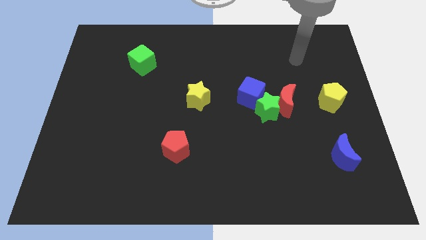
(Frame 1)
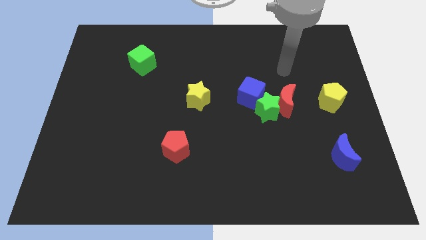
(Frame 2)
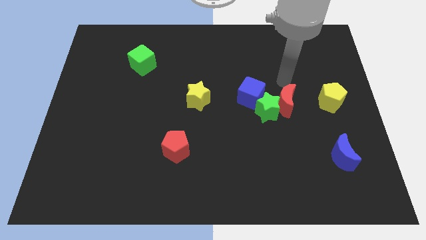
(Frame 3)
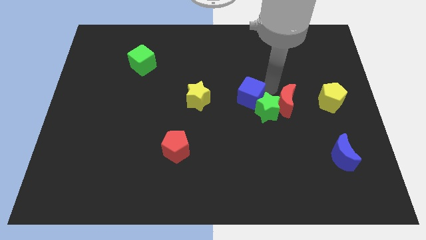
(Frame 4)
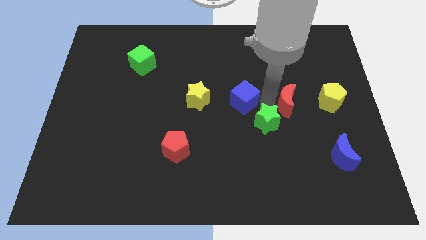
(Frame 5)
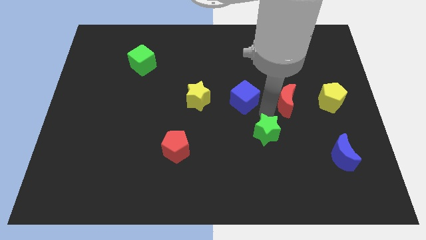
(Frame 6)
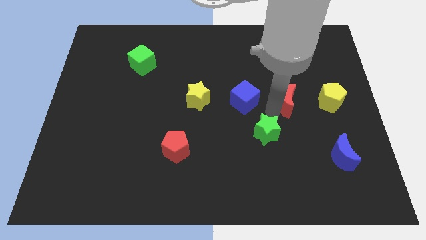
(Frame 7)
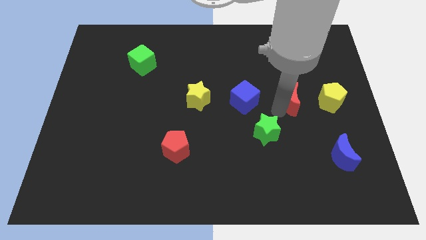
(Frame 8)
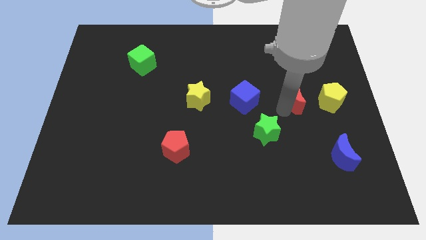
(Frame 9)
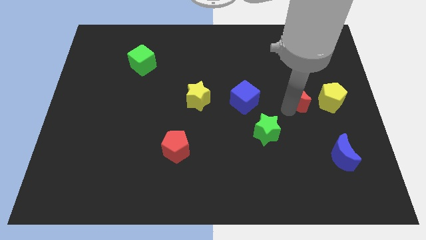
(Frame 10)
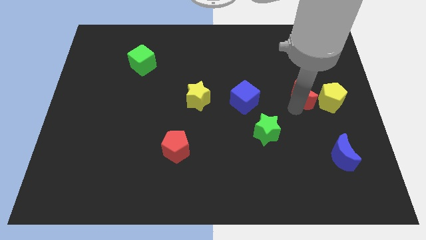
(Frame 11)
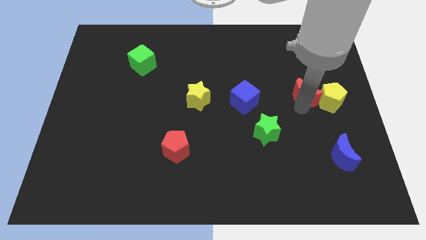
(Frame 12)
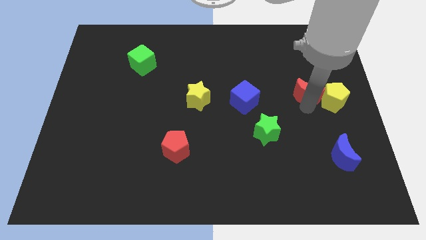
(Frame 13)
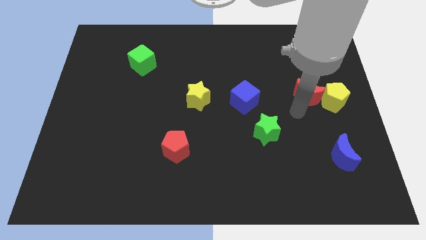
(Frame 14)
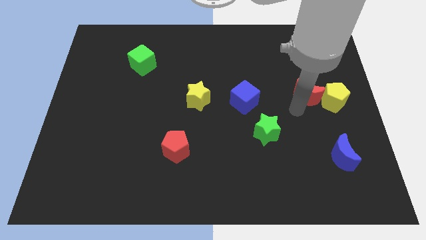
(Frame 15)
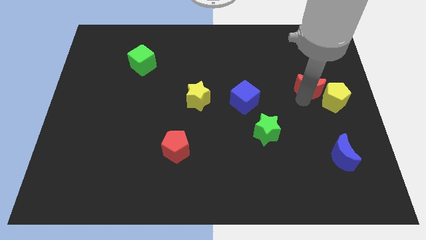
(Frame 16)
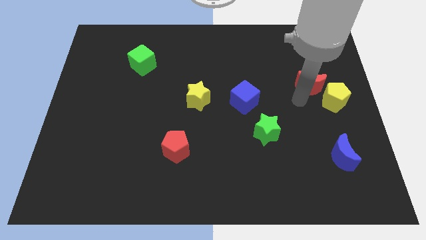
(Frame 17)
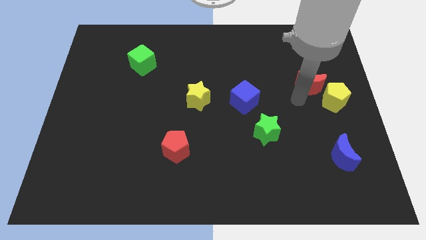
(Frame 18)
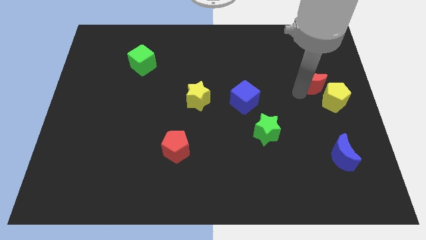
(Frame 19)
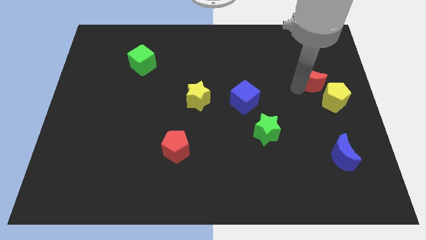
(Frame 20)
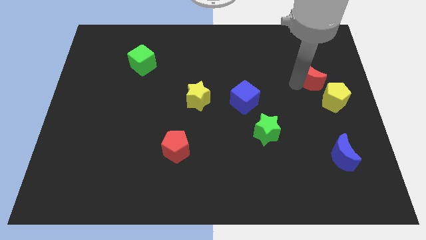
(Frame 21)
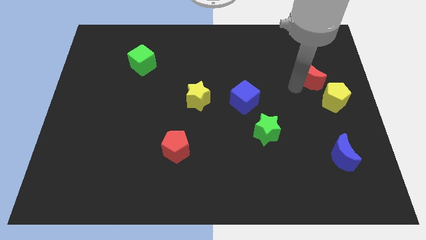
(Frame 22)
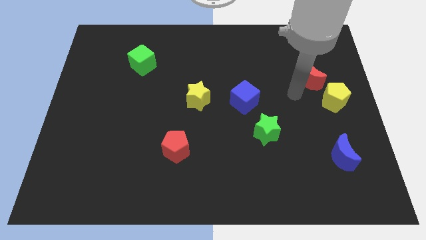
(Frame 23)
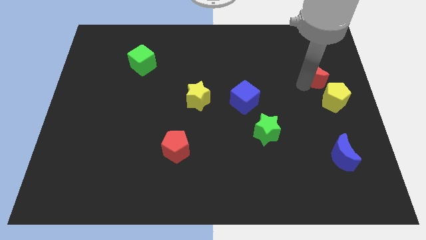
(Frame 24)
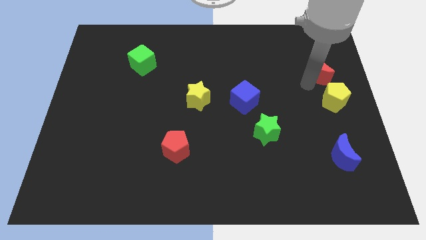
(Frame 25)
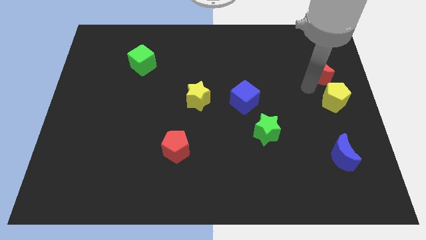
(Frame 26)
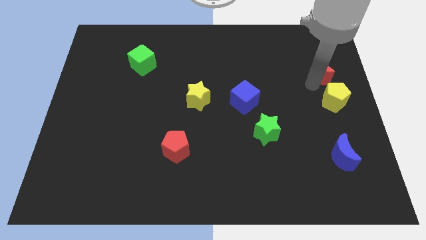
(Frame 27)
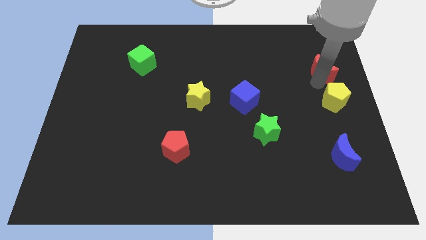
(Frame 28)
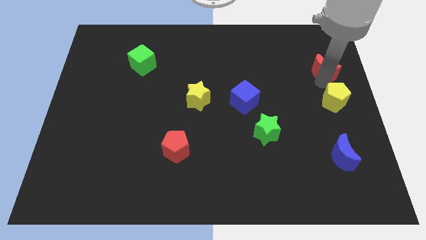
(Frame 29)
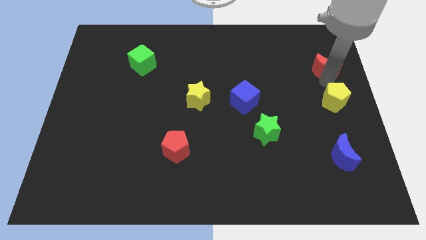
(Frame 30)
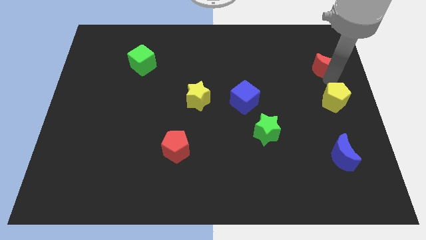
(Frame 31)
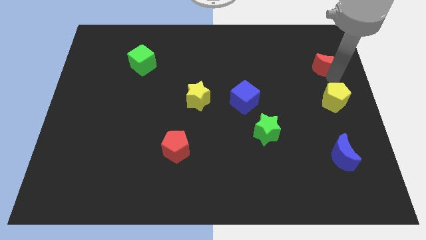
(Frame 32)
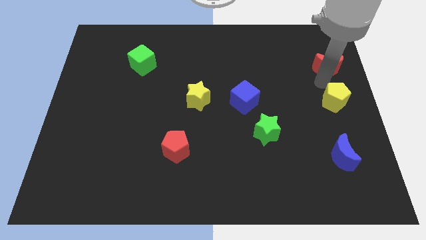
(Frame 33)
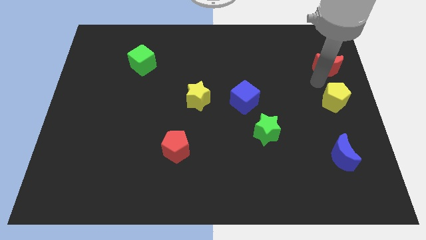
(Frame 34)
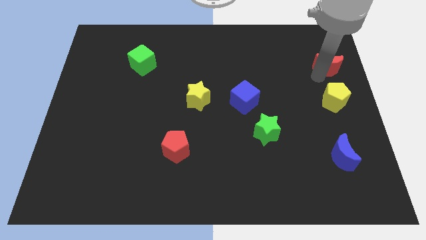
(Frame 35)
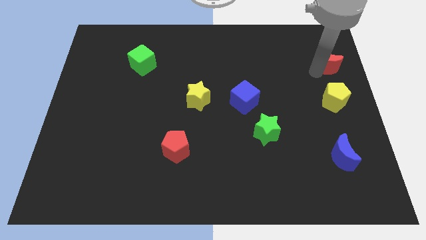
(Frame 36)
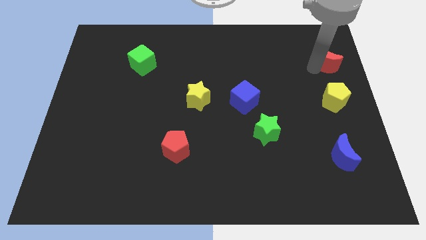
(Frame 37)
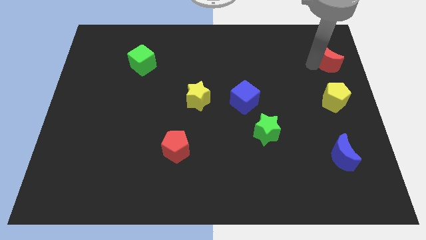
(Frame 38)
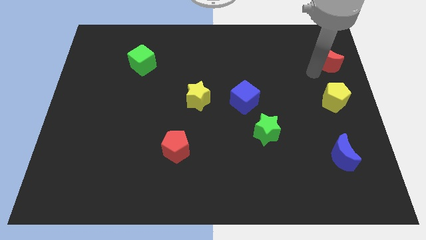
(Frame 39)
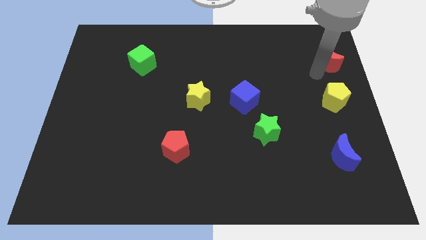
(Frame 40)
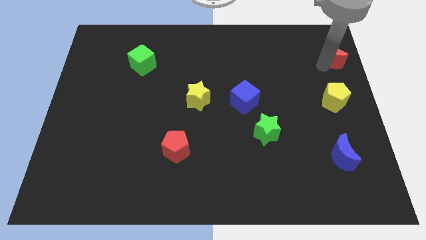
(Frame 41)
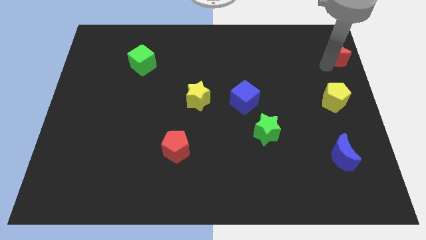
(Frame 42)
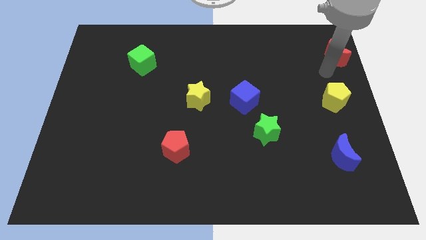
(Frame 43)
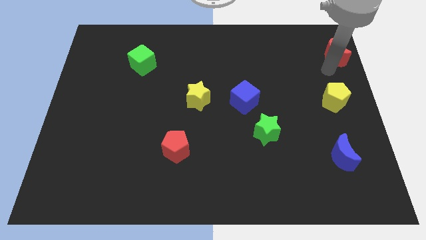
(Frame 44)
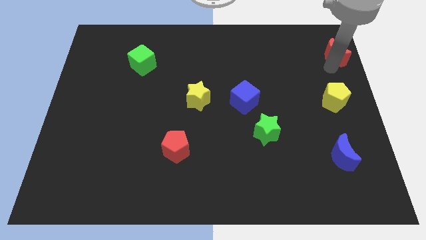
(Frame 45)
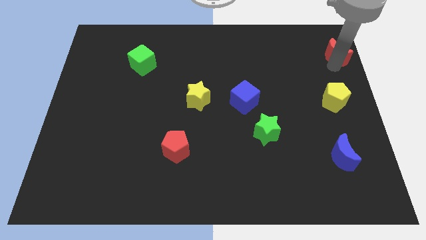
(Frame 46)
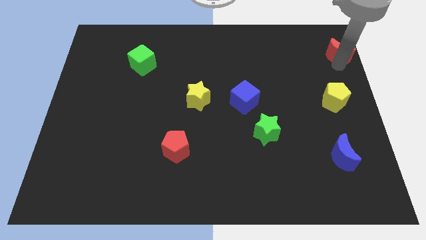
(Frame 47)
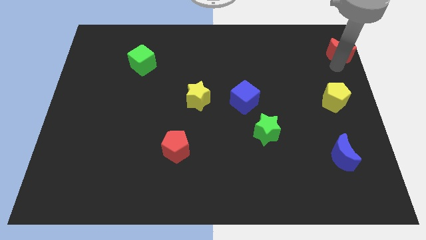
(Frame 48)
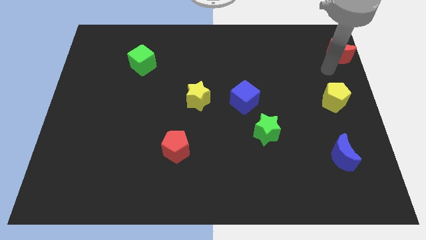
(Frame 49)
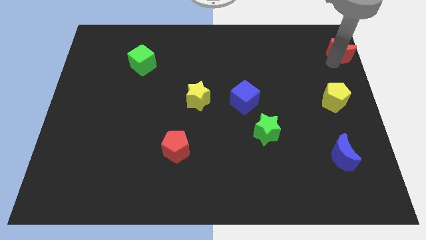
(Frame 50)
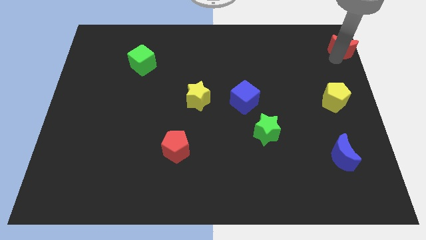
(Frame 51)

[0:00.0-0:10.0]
slide the red moon to the upper right corner

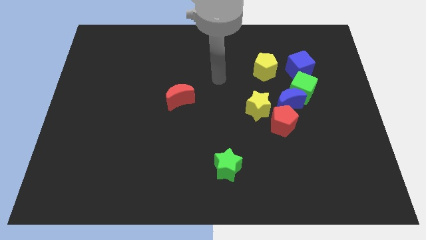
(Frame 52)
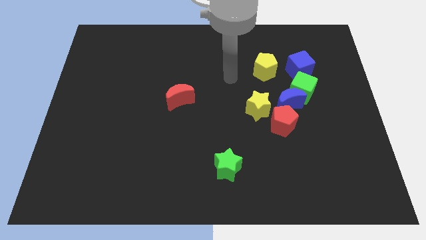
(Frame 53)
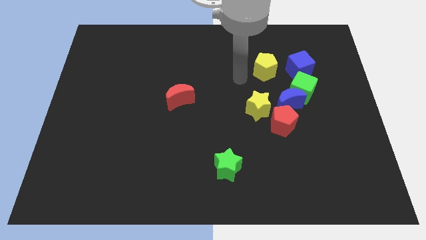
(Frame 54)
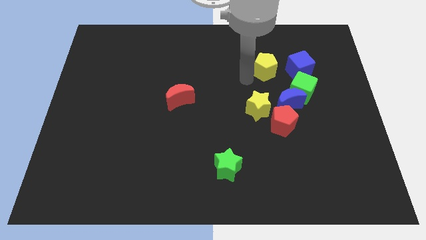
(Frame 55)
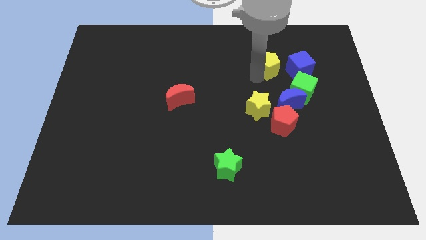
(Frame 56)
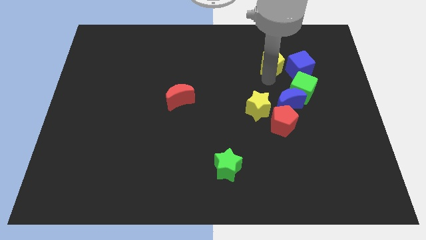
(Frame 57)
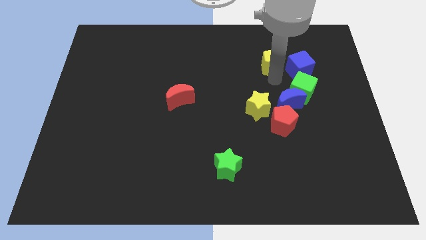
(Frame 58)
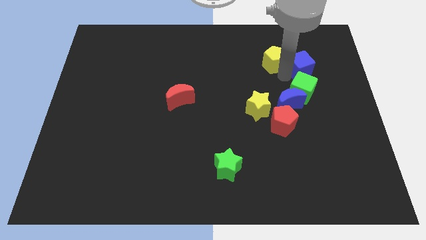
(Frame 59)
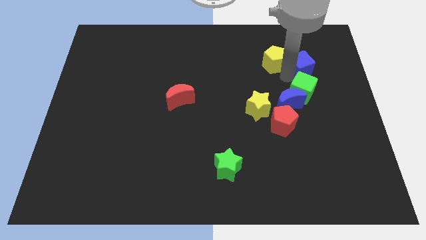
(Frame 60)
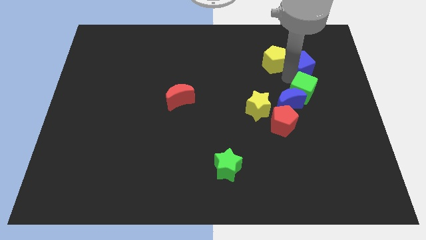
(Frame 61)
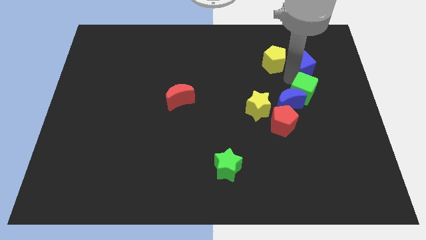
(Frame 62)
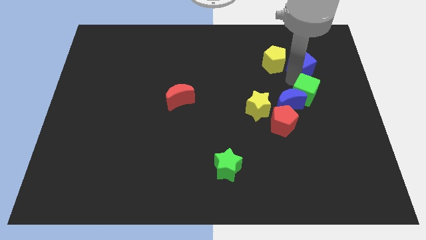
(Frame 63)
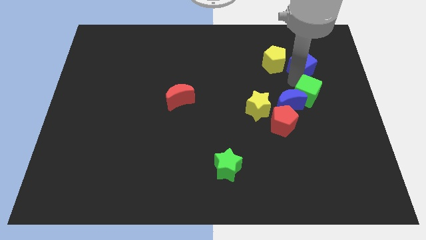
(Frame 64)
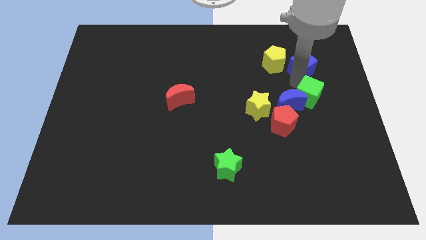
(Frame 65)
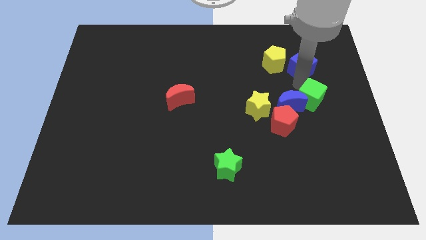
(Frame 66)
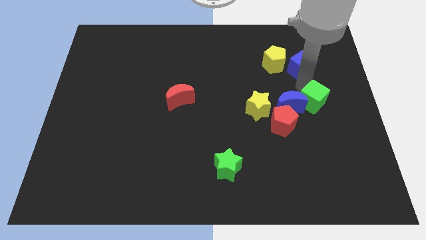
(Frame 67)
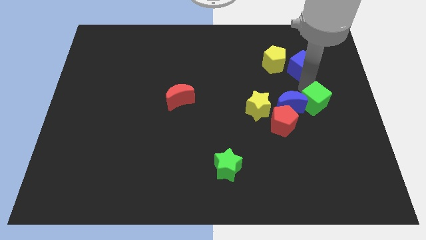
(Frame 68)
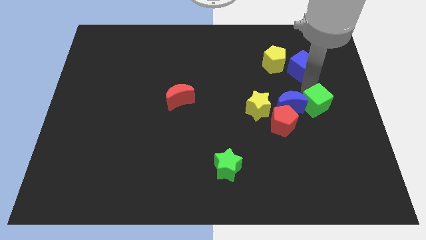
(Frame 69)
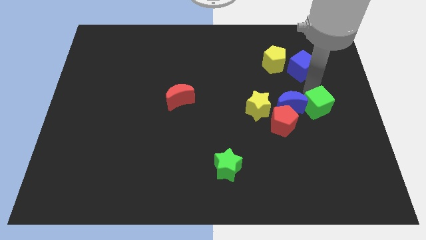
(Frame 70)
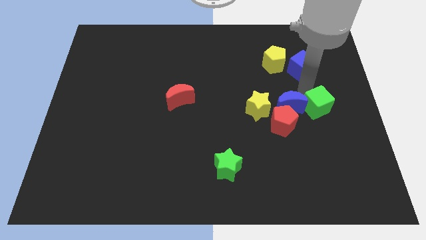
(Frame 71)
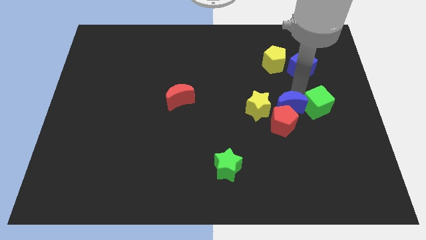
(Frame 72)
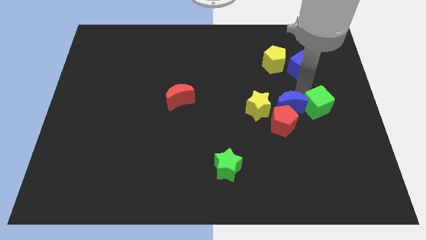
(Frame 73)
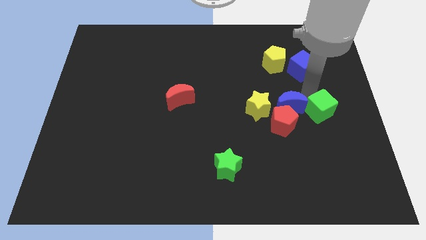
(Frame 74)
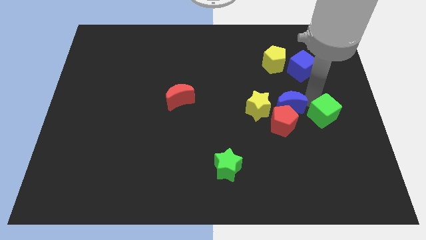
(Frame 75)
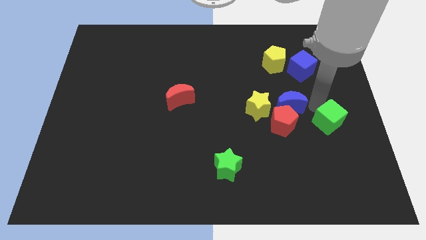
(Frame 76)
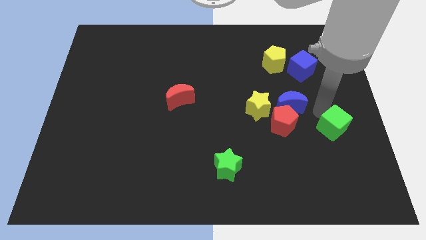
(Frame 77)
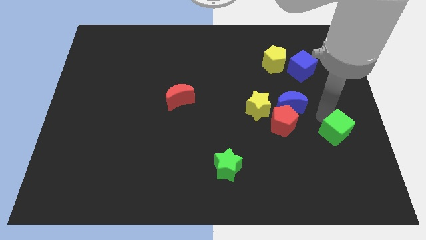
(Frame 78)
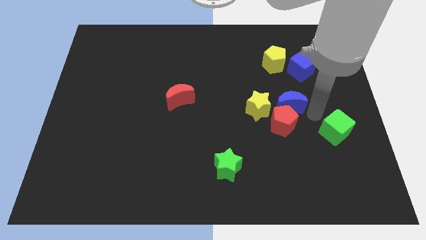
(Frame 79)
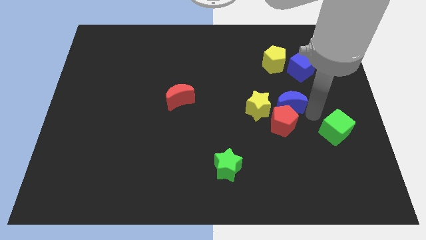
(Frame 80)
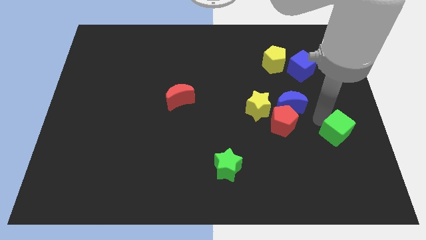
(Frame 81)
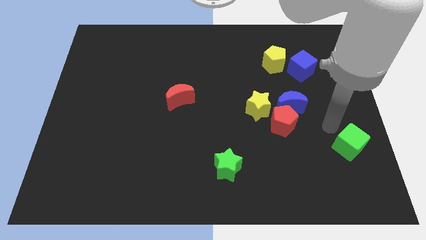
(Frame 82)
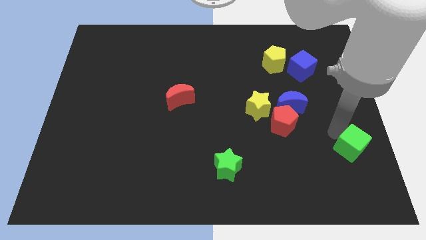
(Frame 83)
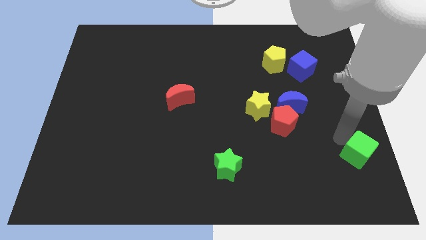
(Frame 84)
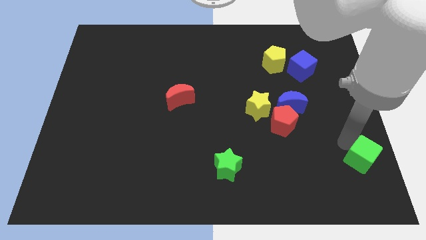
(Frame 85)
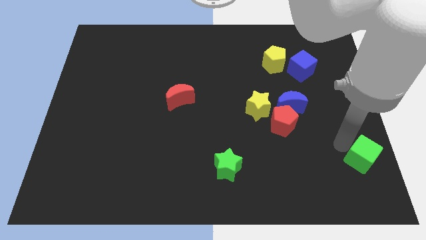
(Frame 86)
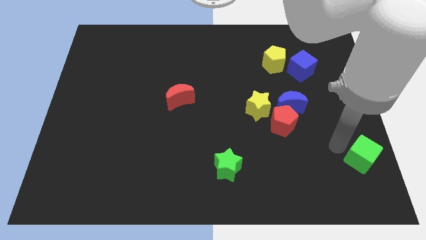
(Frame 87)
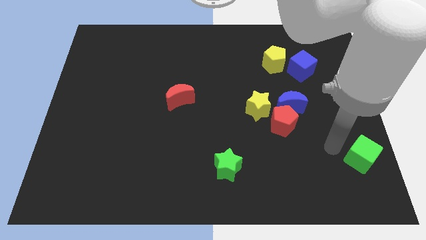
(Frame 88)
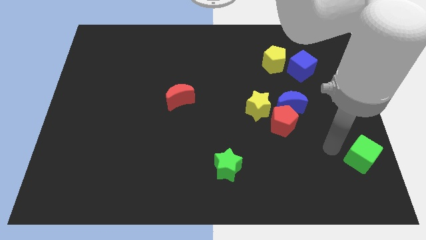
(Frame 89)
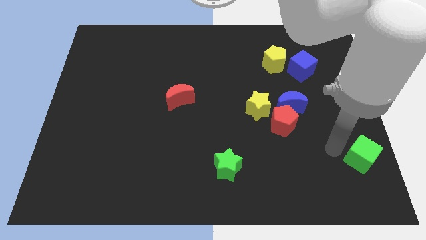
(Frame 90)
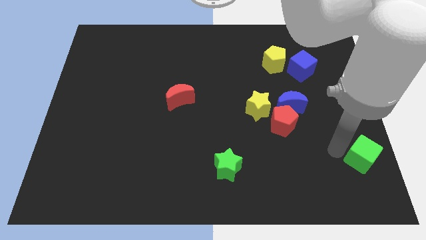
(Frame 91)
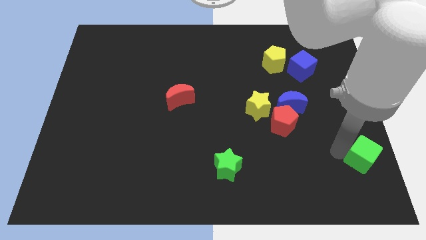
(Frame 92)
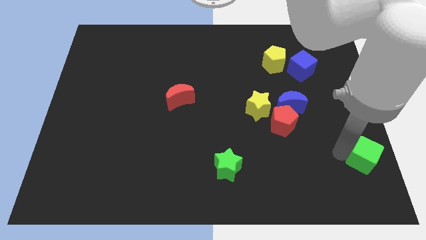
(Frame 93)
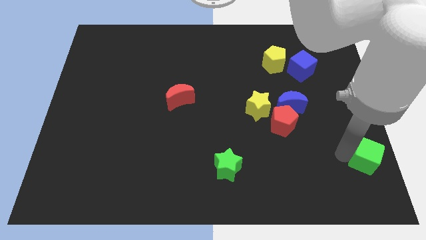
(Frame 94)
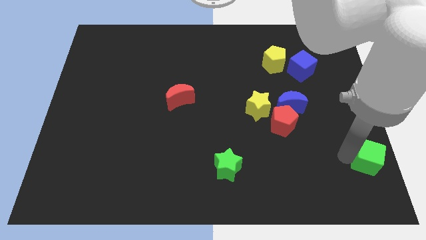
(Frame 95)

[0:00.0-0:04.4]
push the green cube to the bottom right of the board
